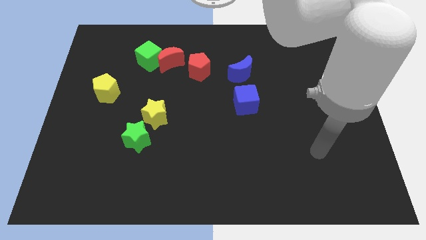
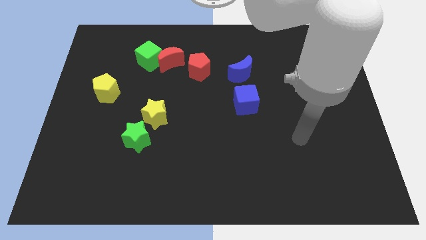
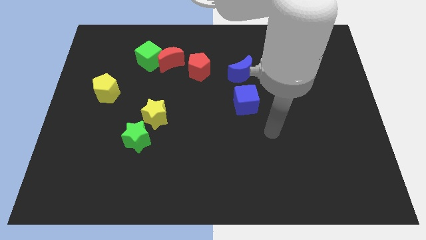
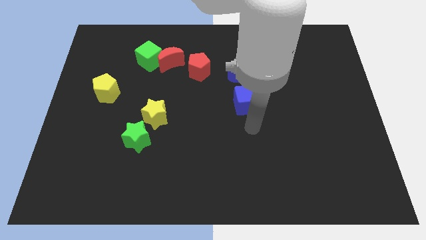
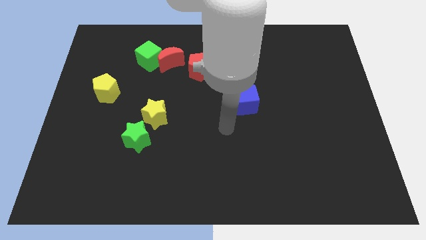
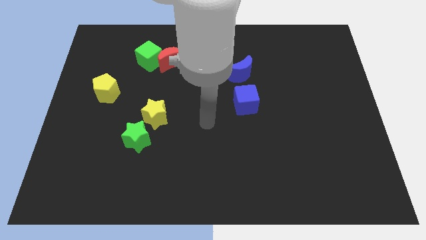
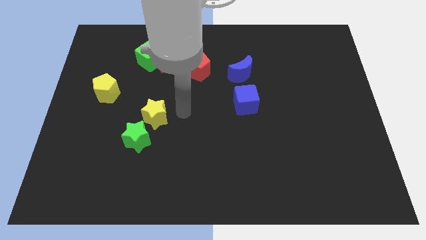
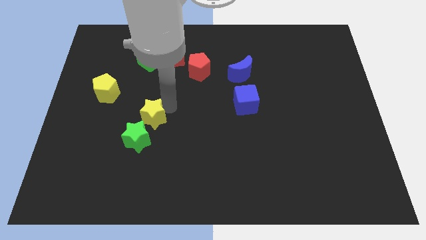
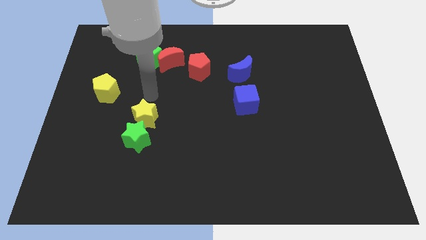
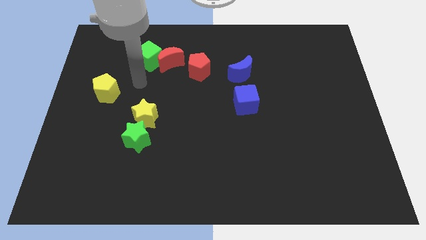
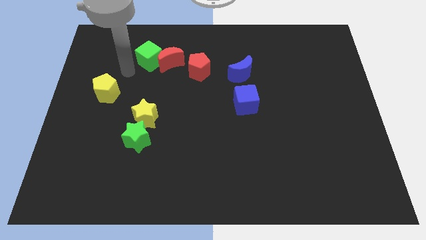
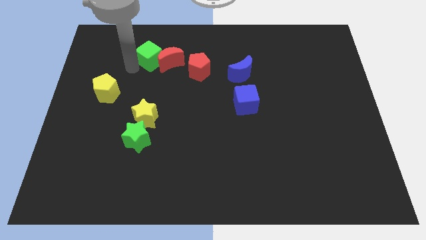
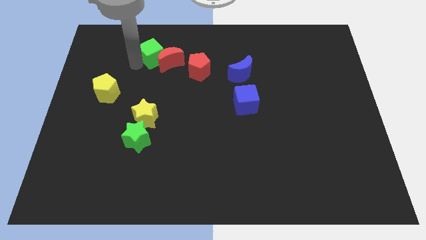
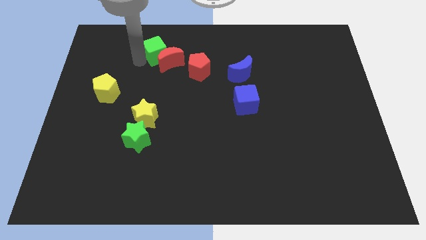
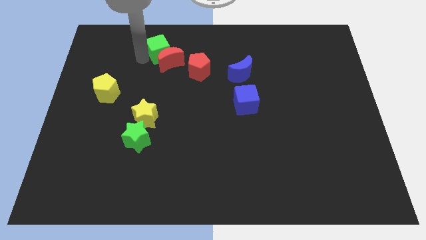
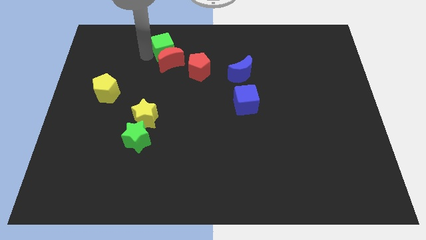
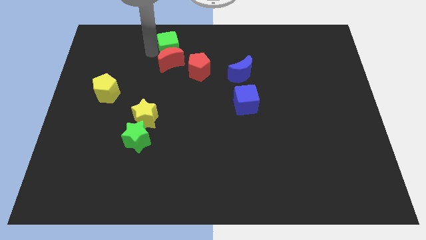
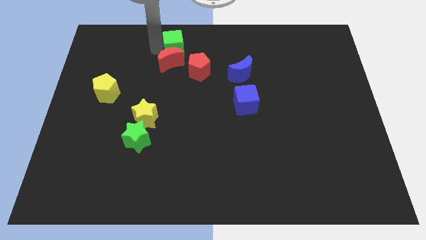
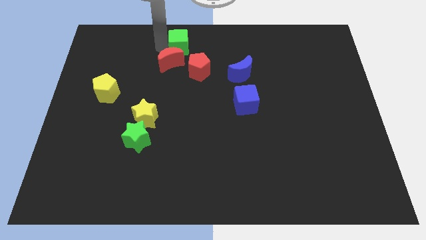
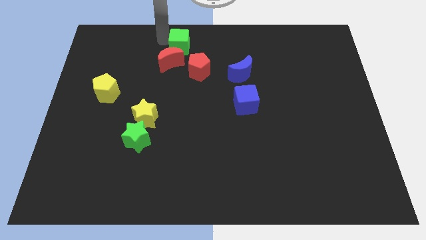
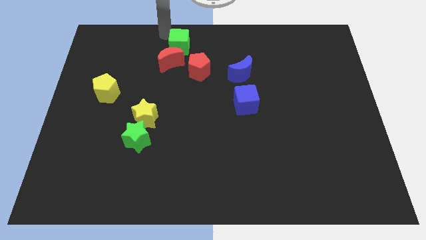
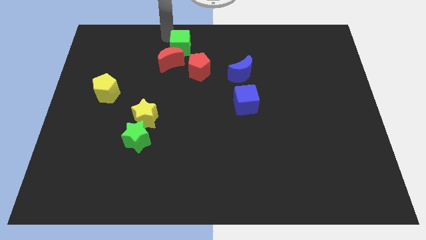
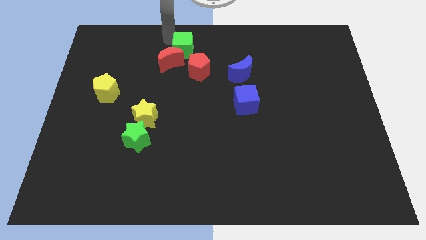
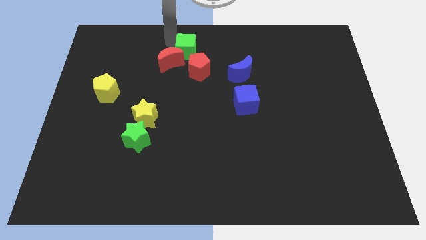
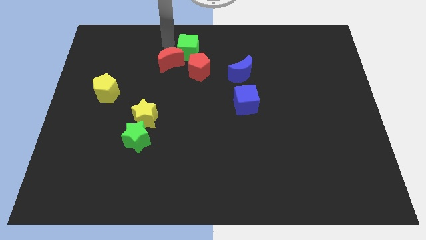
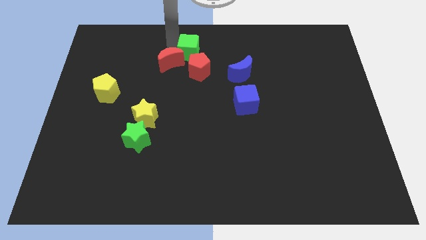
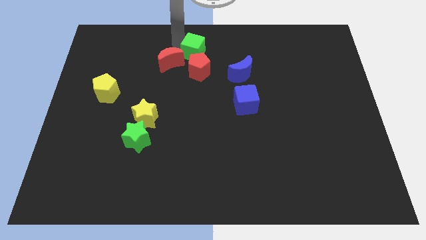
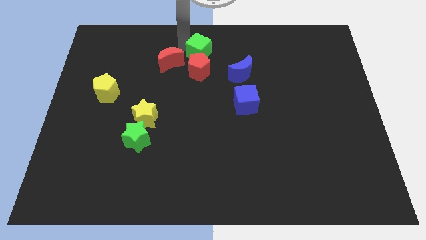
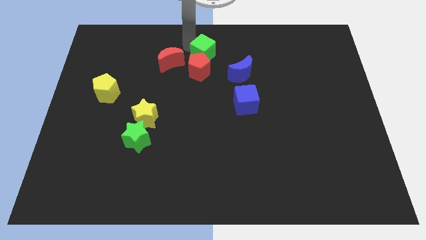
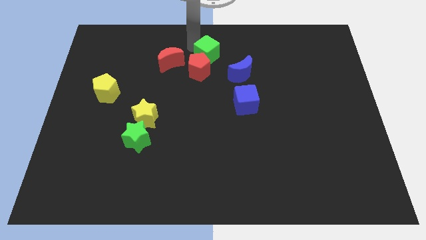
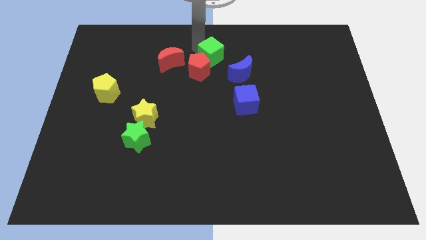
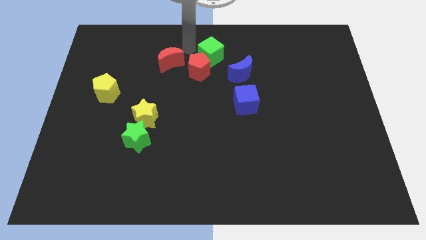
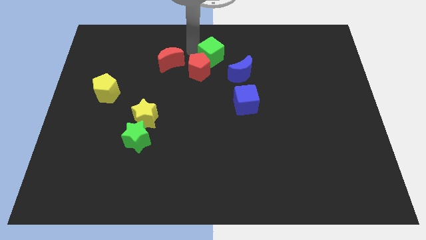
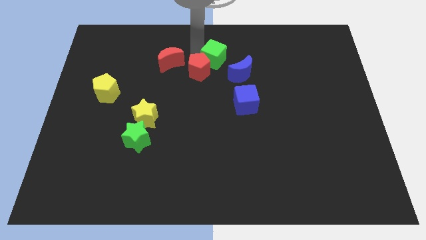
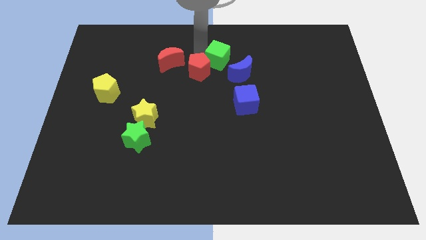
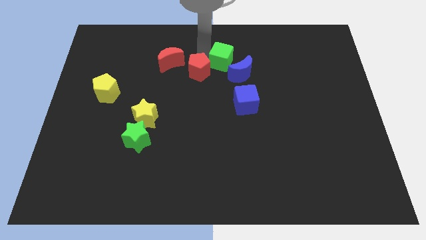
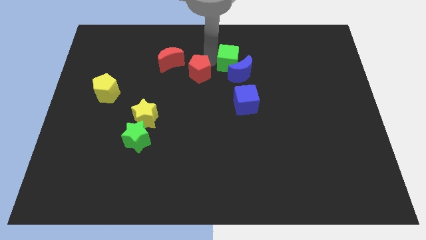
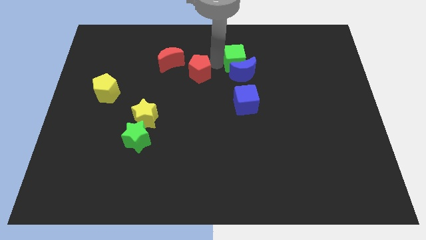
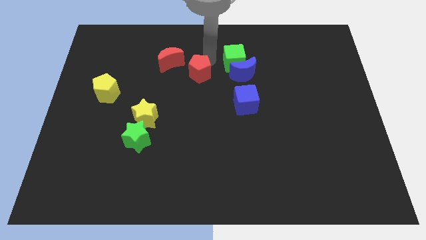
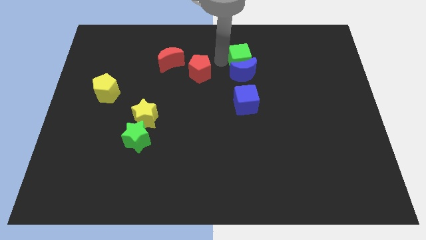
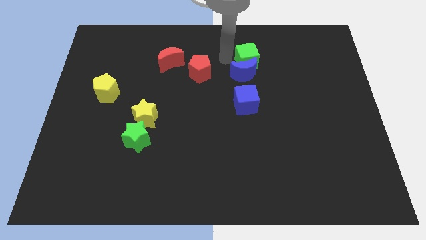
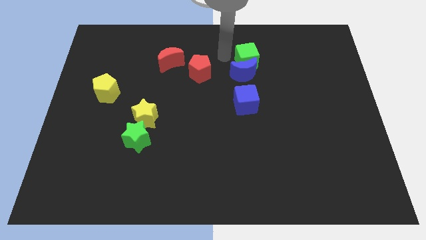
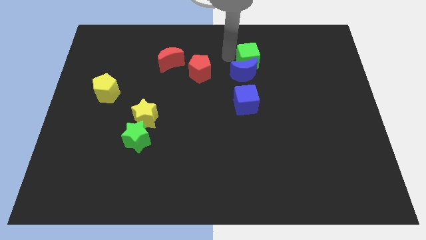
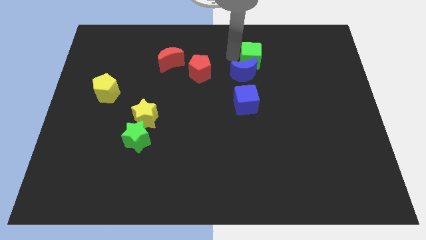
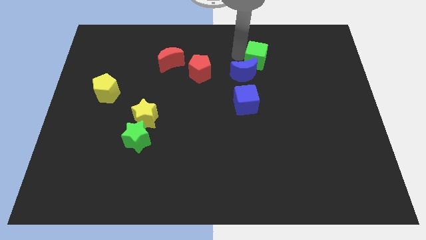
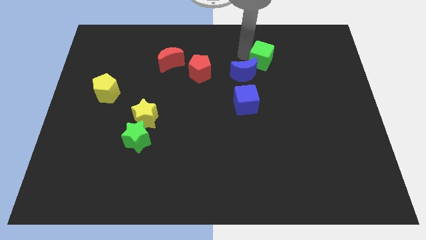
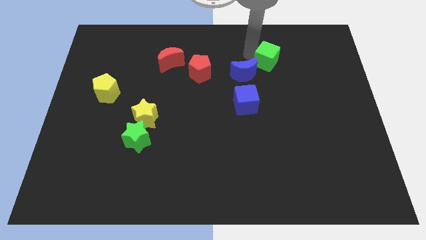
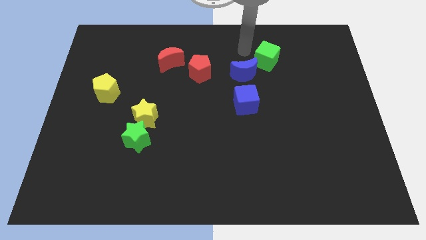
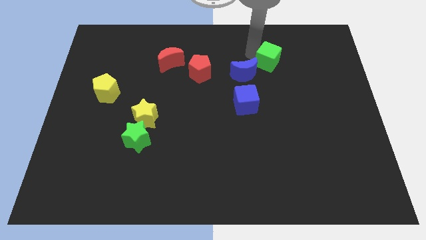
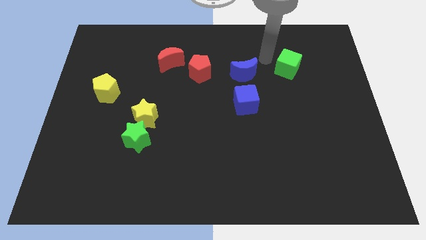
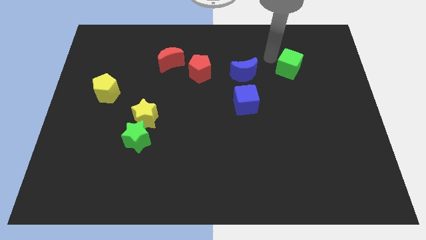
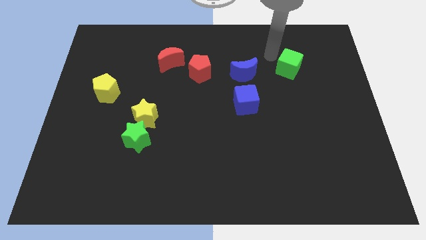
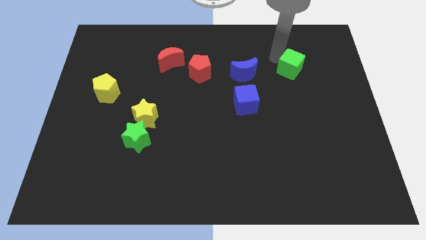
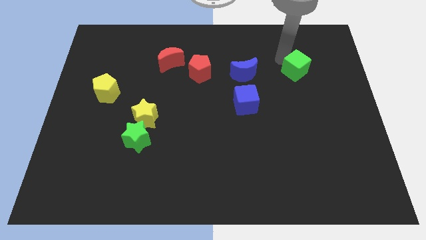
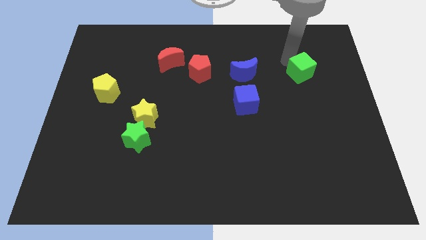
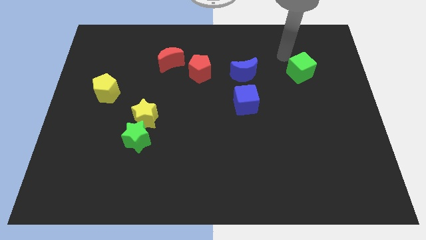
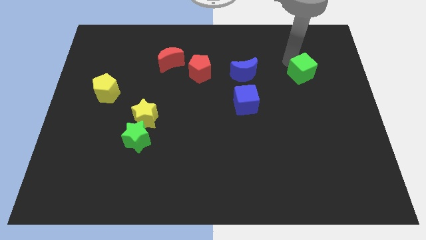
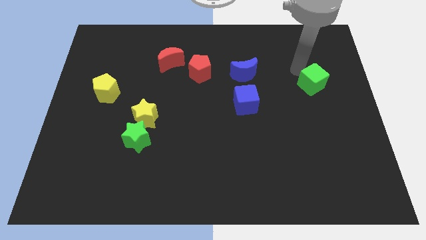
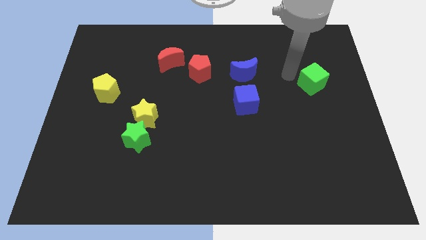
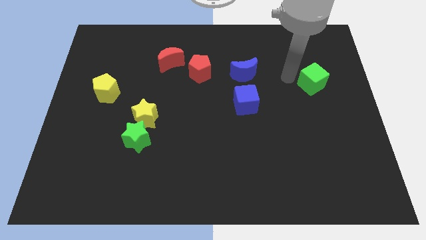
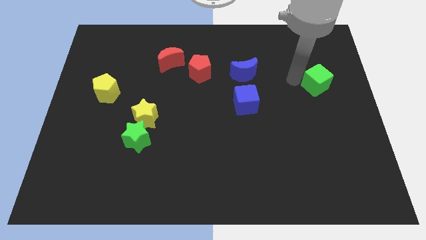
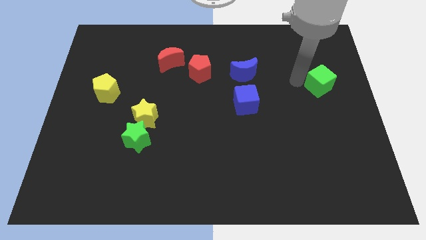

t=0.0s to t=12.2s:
push the green cube to the center right

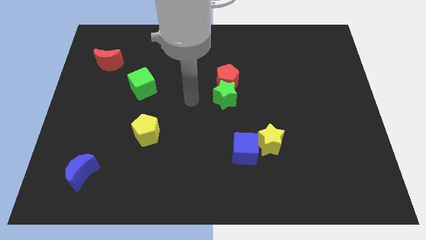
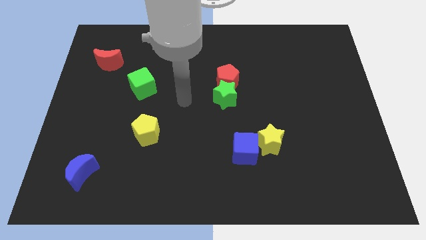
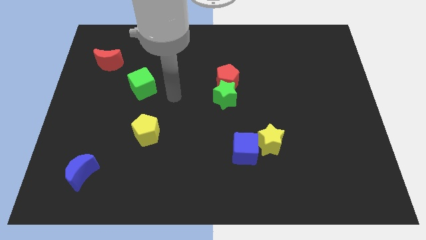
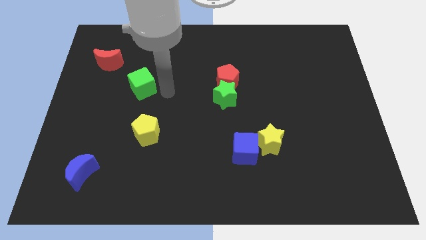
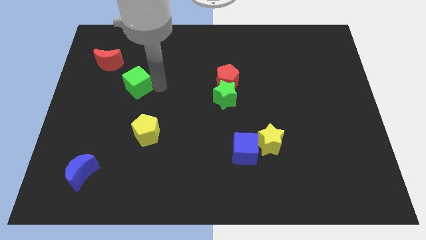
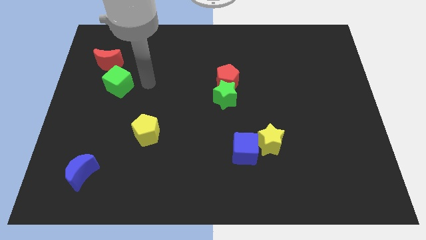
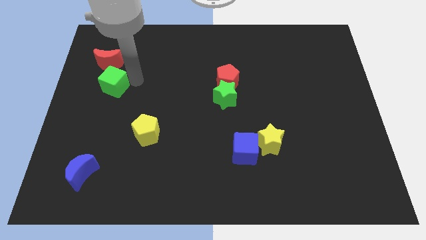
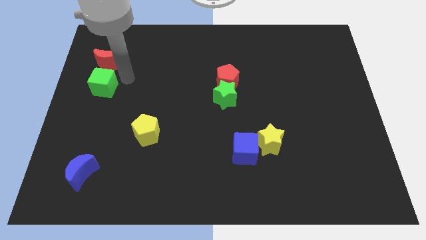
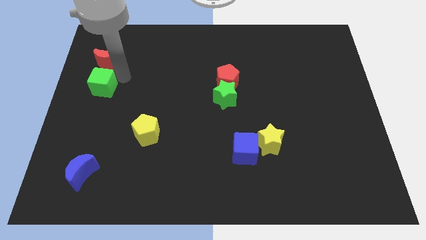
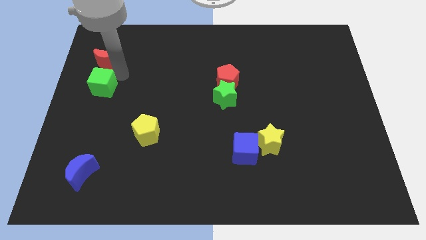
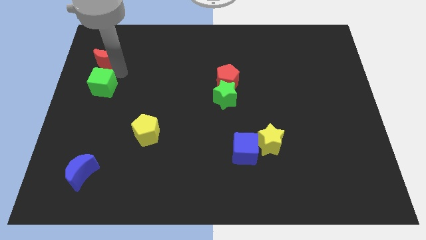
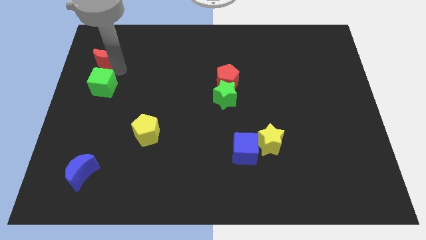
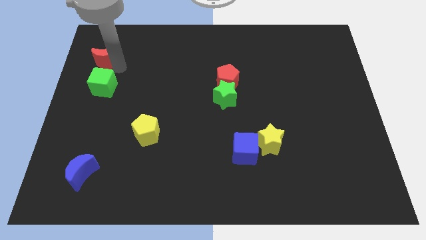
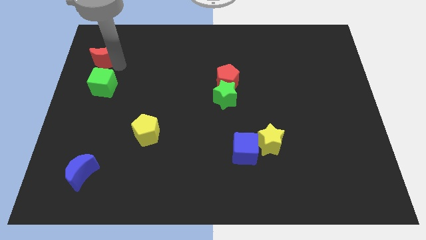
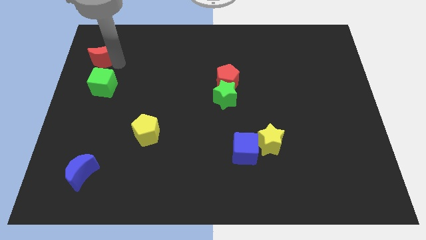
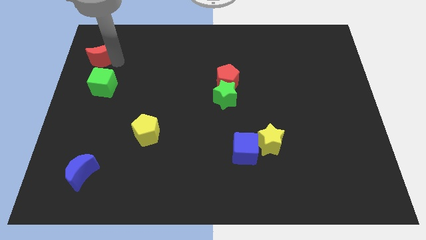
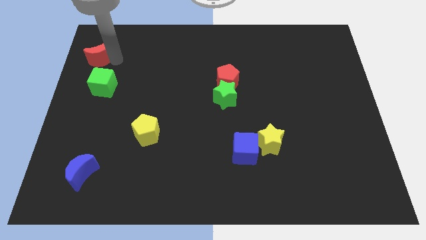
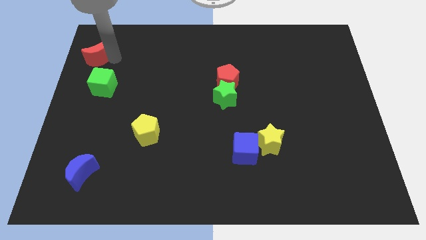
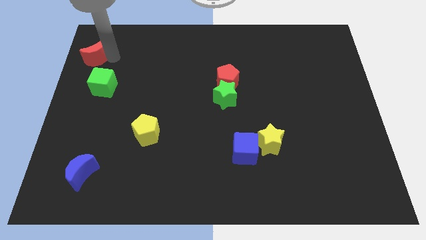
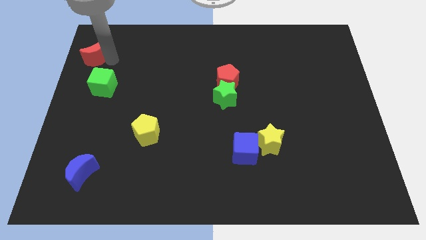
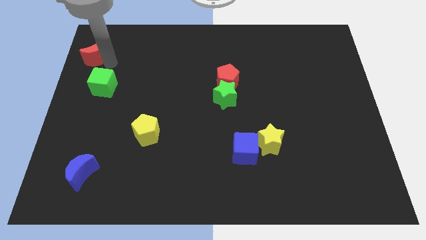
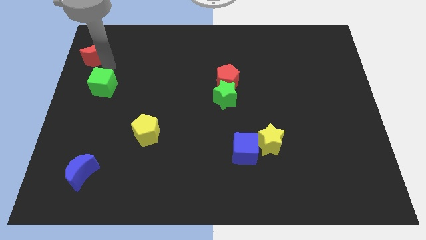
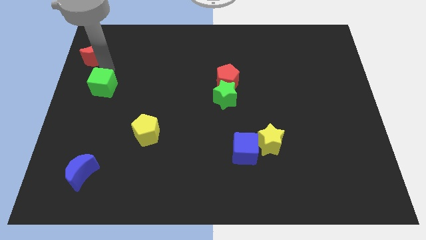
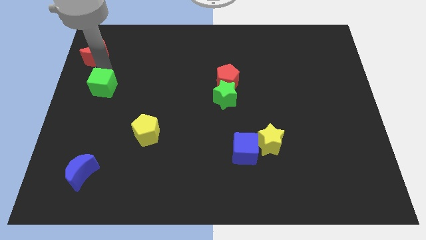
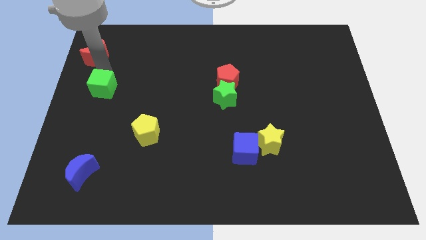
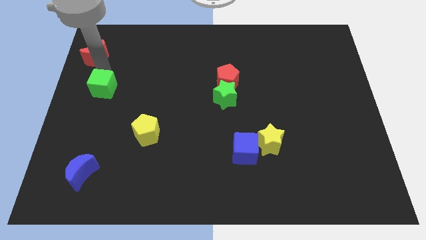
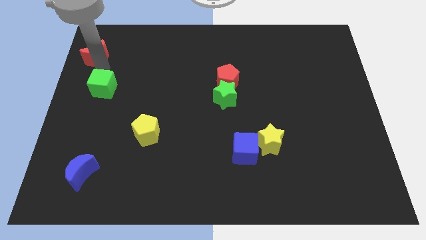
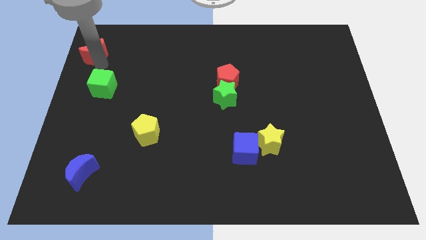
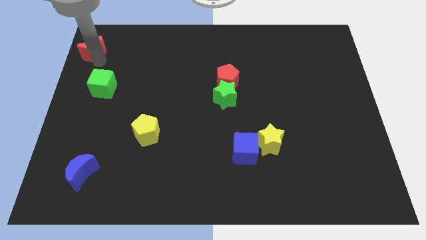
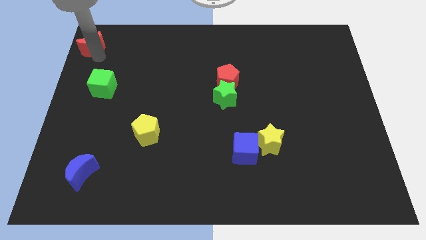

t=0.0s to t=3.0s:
push the red moon to the top left of the board
